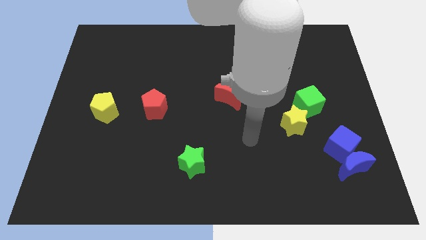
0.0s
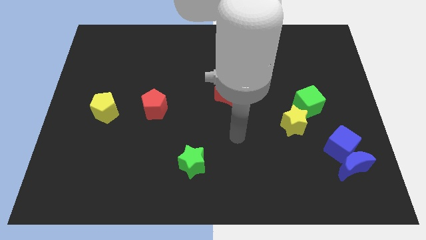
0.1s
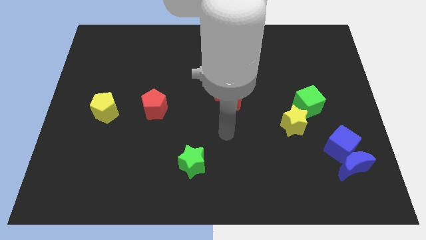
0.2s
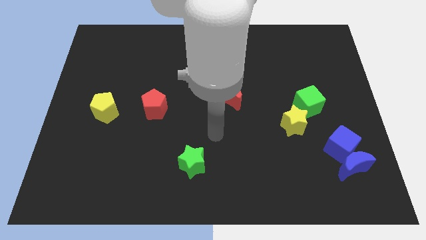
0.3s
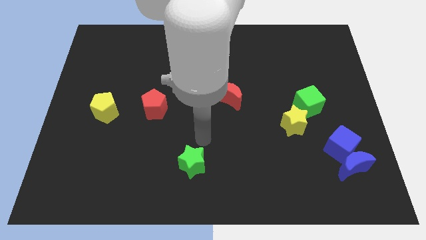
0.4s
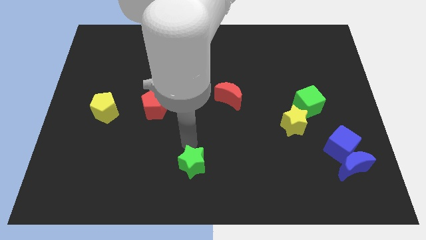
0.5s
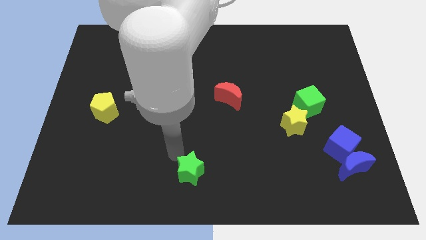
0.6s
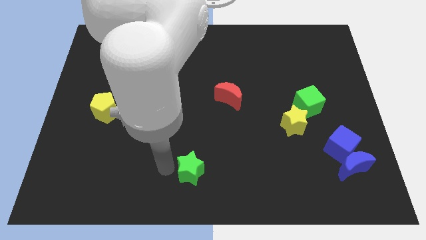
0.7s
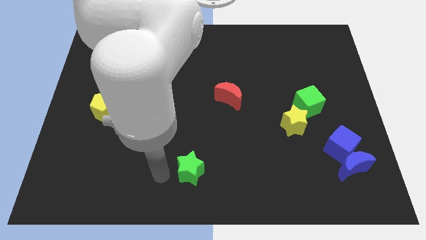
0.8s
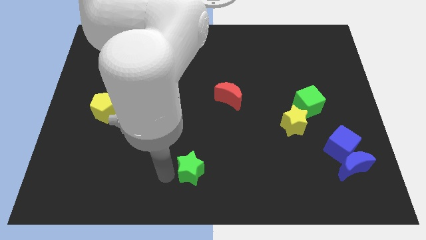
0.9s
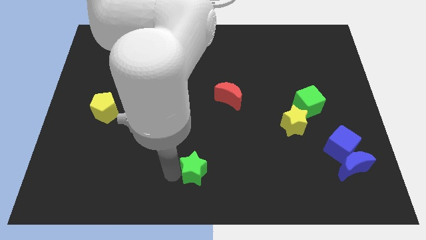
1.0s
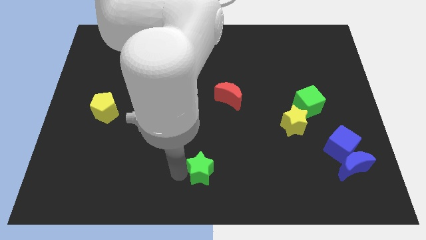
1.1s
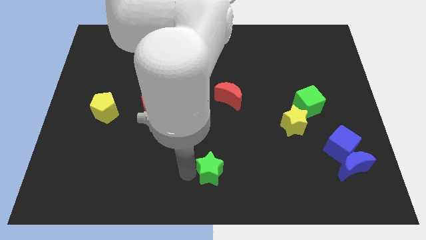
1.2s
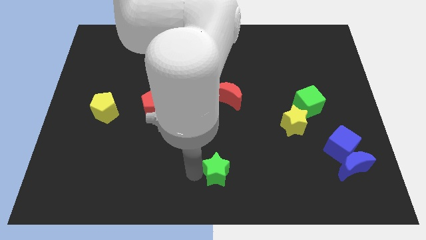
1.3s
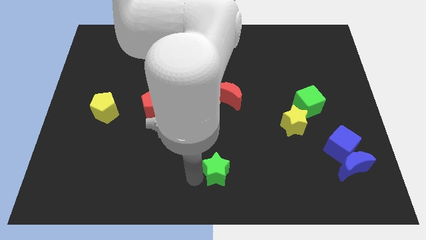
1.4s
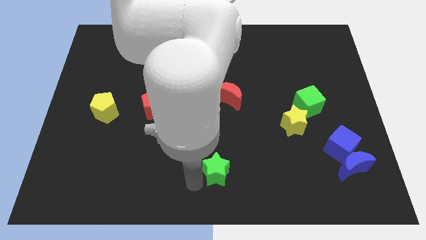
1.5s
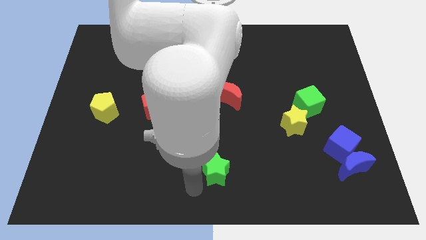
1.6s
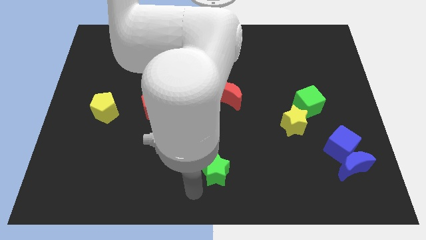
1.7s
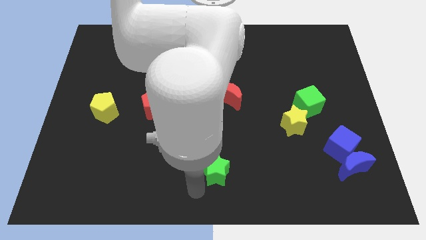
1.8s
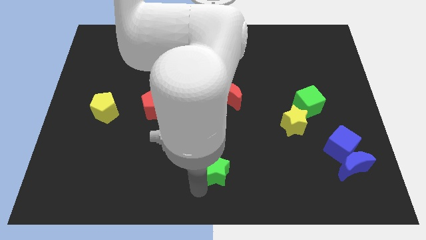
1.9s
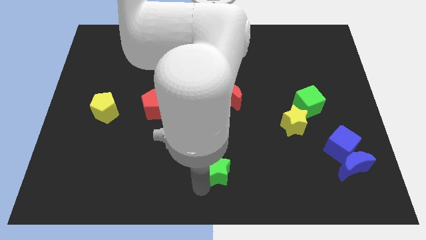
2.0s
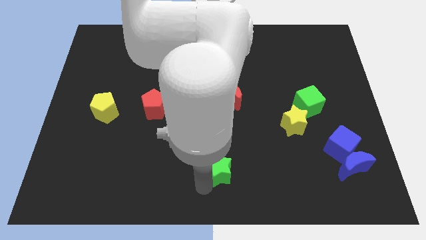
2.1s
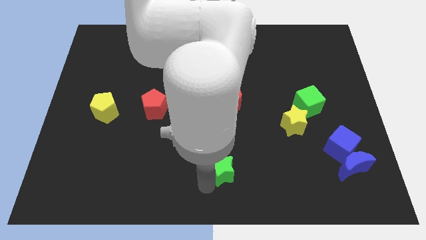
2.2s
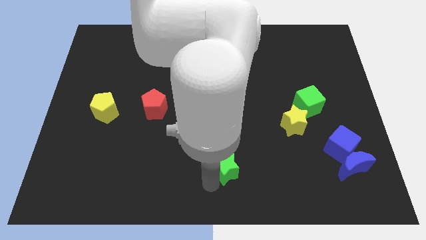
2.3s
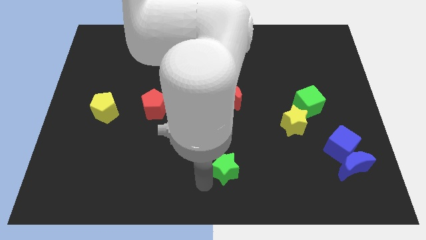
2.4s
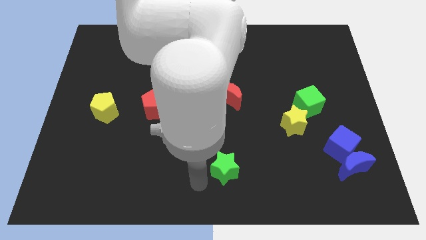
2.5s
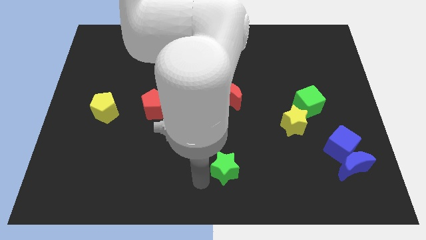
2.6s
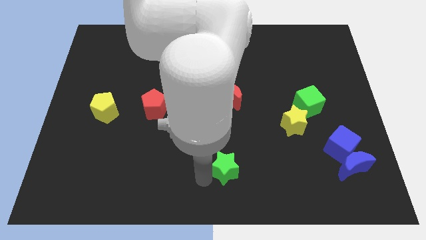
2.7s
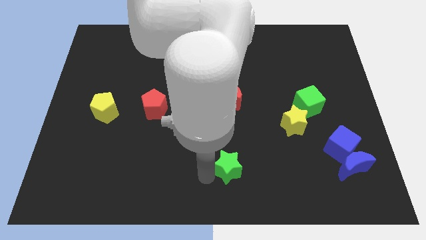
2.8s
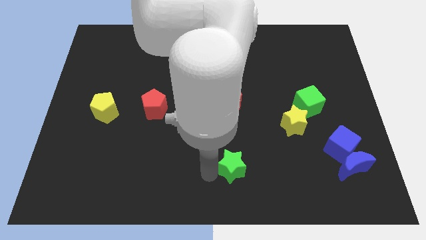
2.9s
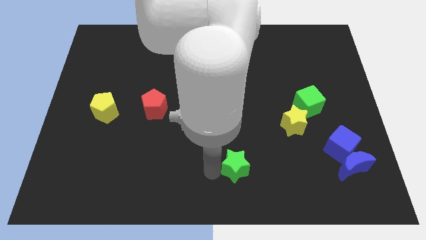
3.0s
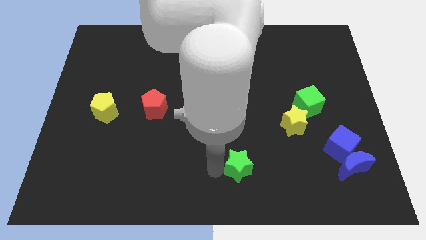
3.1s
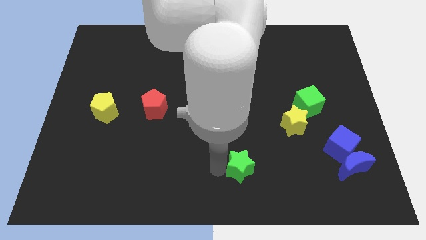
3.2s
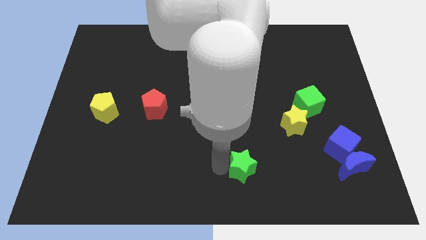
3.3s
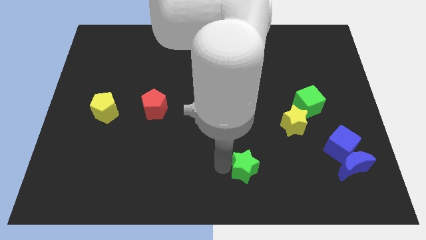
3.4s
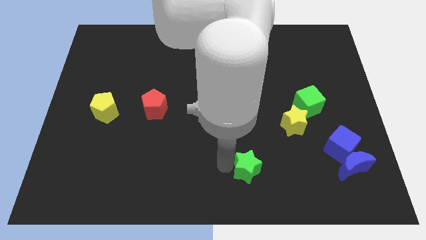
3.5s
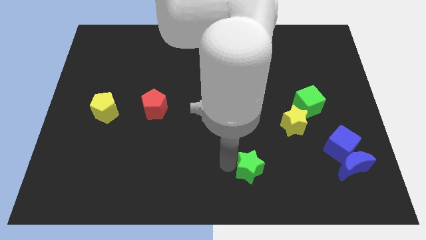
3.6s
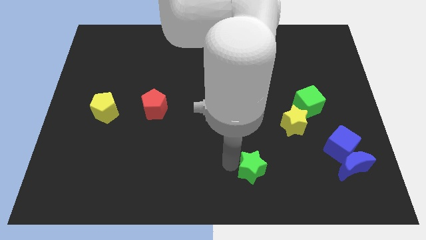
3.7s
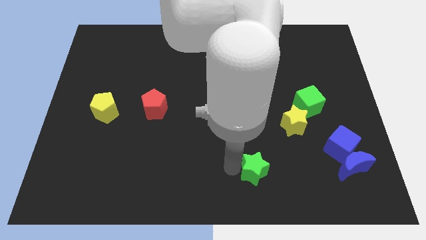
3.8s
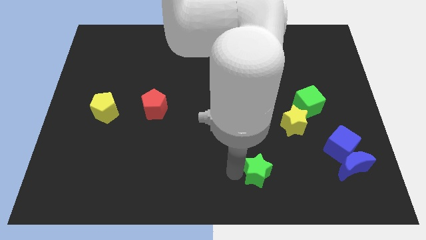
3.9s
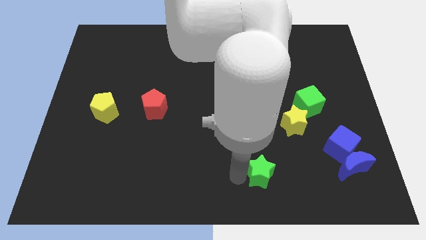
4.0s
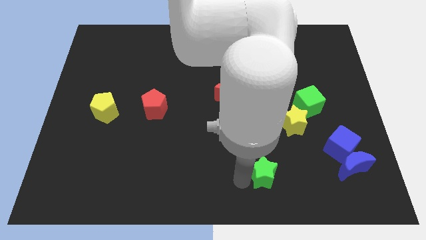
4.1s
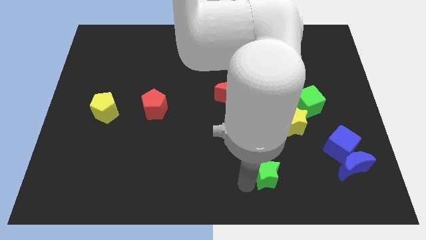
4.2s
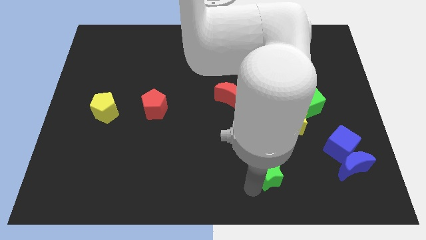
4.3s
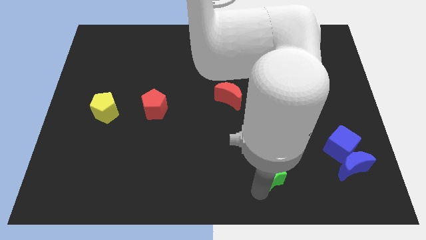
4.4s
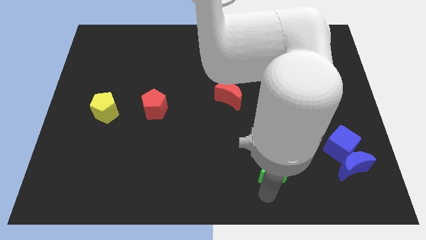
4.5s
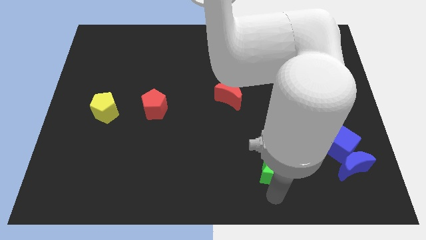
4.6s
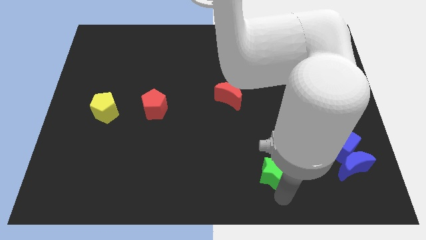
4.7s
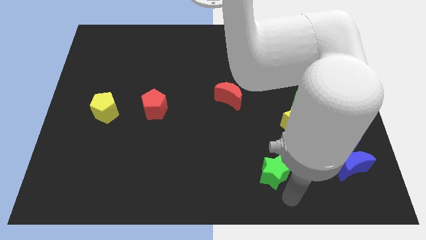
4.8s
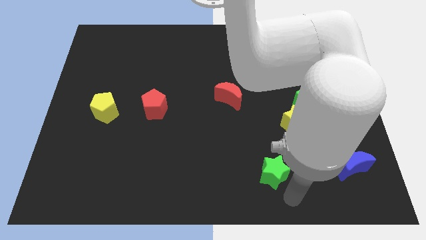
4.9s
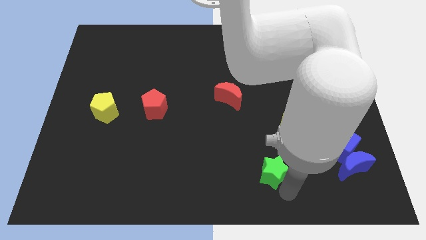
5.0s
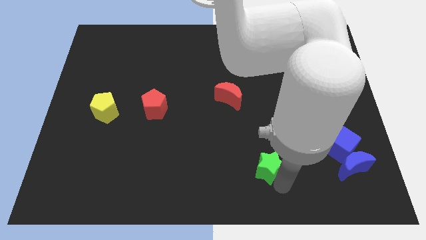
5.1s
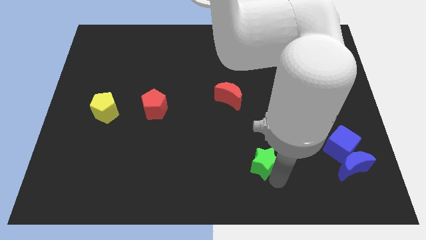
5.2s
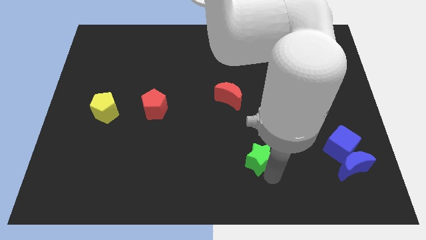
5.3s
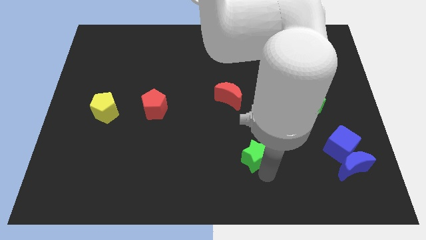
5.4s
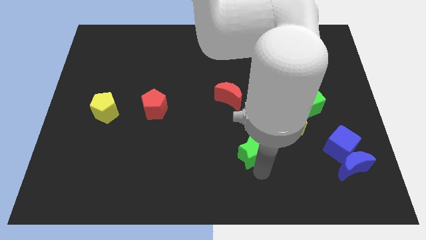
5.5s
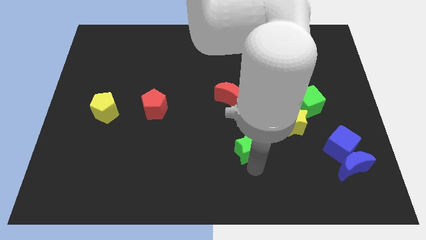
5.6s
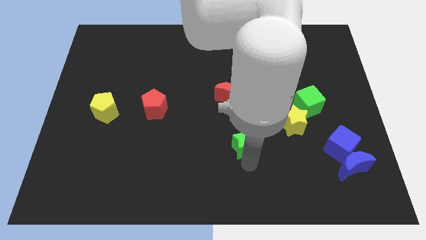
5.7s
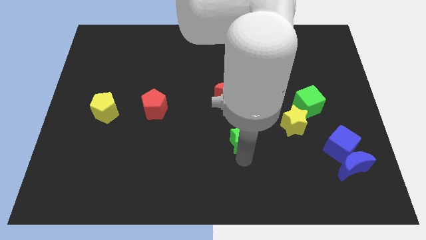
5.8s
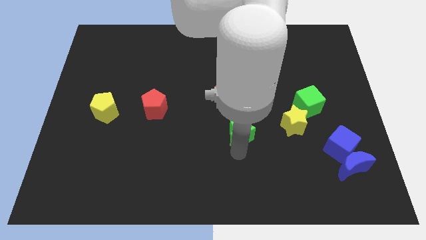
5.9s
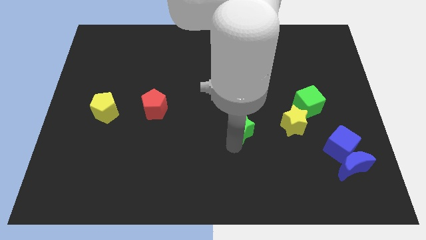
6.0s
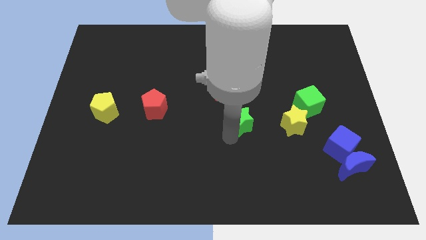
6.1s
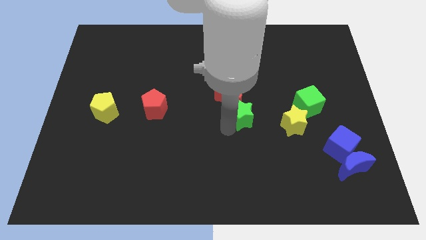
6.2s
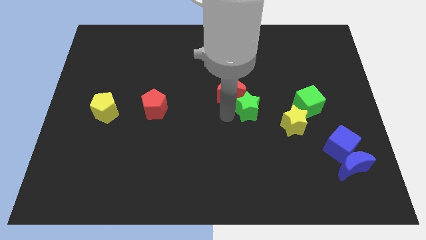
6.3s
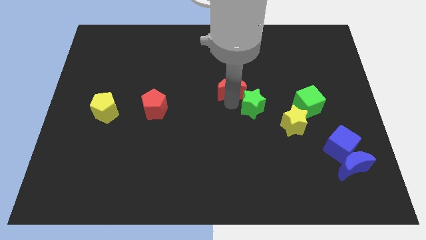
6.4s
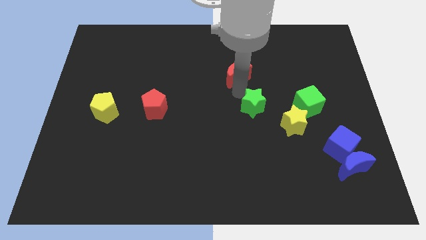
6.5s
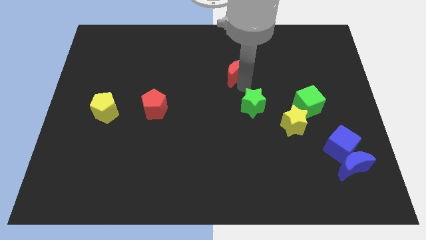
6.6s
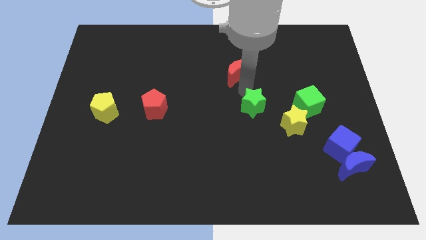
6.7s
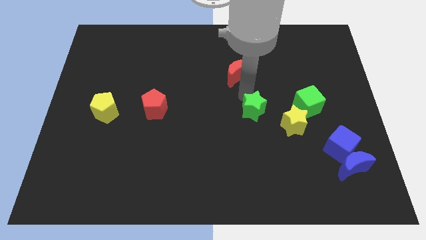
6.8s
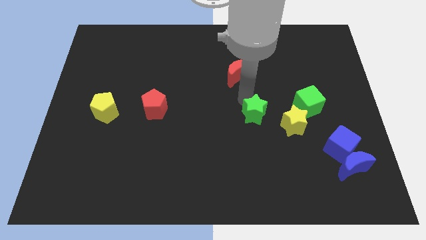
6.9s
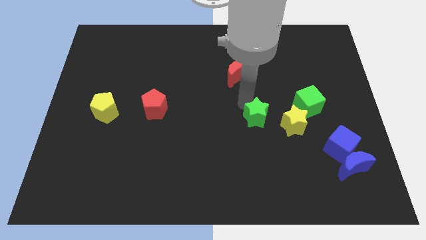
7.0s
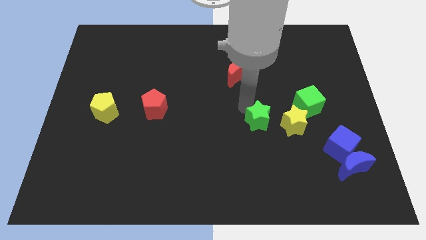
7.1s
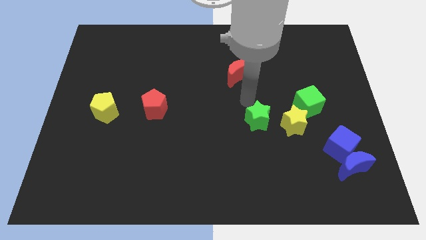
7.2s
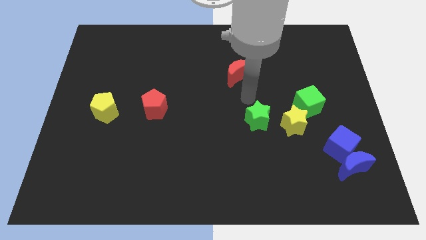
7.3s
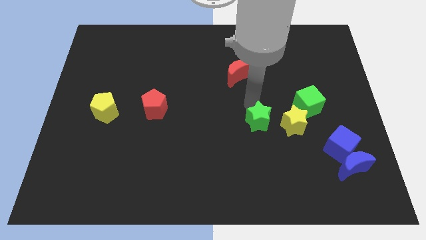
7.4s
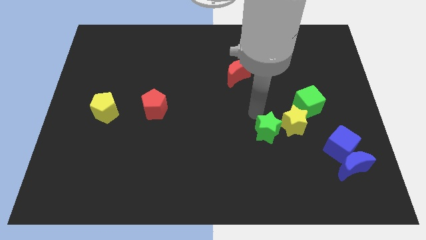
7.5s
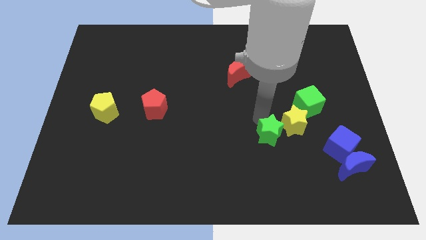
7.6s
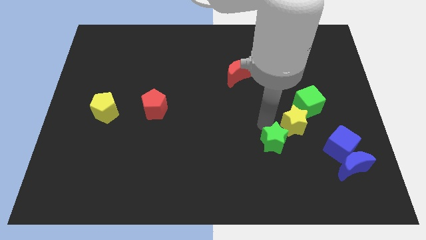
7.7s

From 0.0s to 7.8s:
push the green star to the bottom of the yellow star
